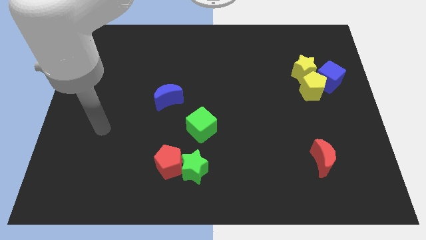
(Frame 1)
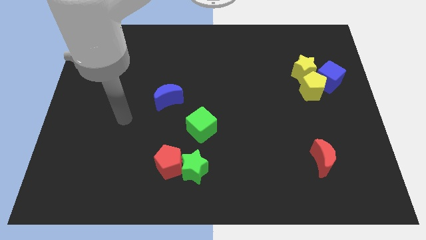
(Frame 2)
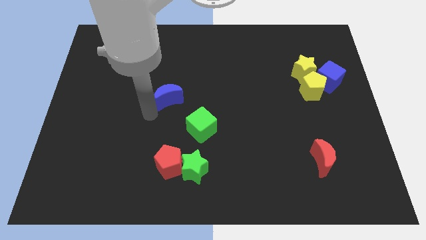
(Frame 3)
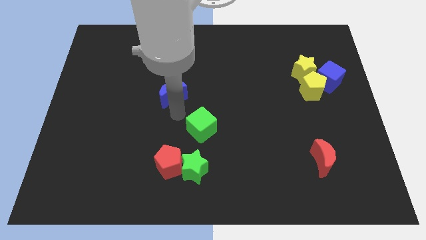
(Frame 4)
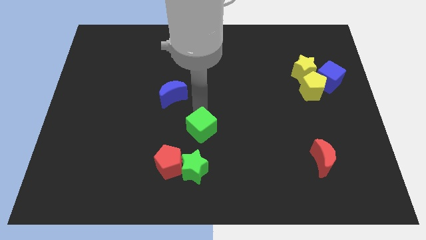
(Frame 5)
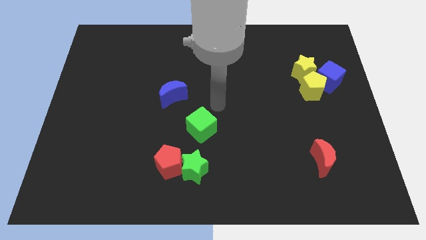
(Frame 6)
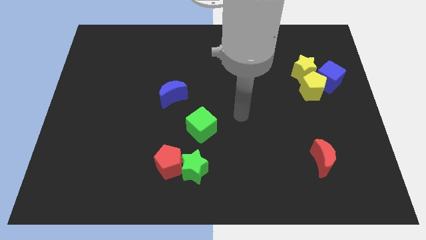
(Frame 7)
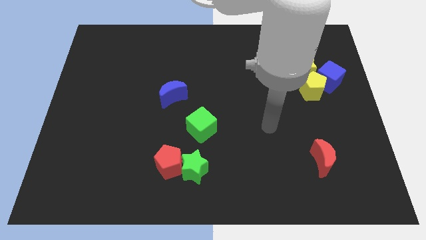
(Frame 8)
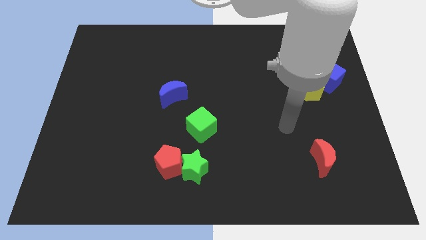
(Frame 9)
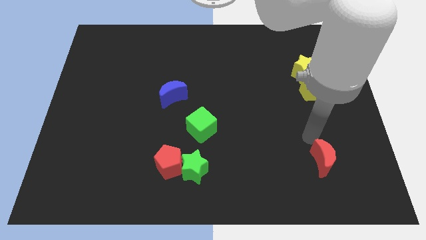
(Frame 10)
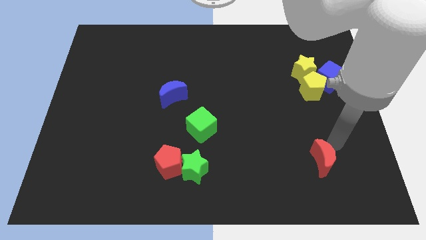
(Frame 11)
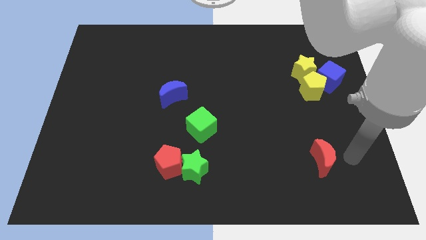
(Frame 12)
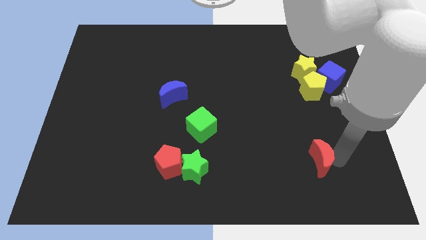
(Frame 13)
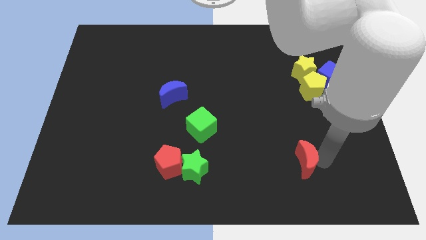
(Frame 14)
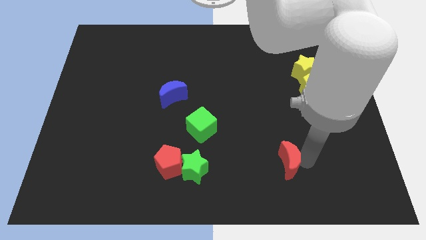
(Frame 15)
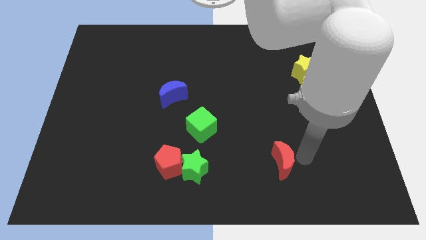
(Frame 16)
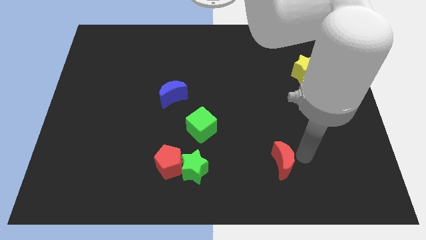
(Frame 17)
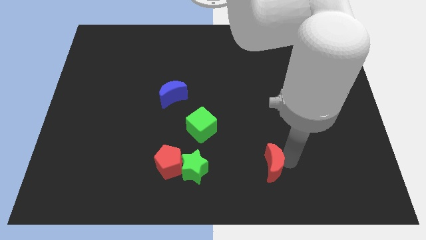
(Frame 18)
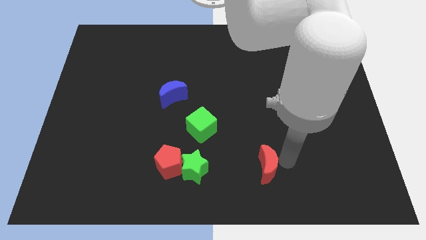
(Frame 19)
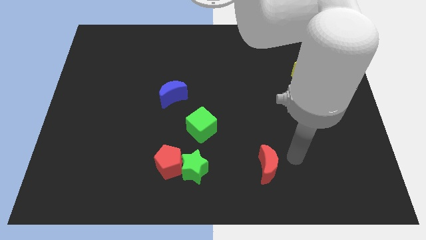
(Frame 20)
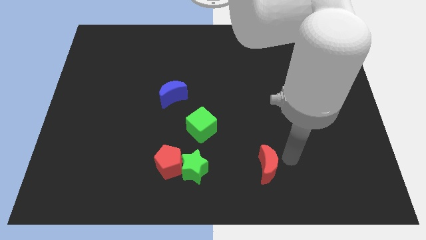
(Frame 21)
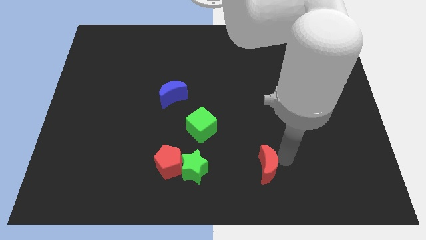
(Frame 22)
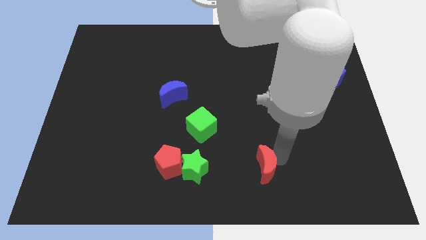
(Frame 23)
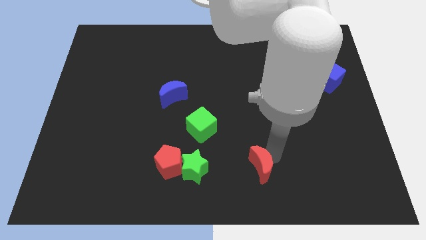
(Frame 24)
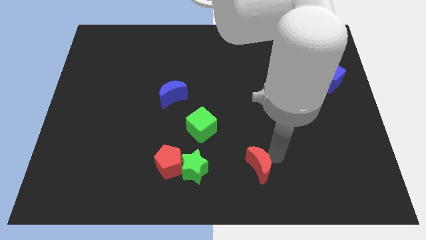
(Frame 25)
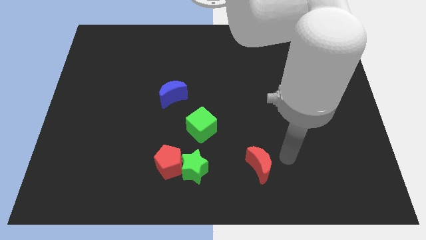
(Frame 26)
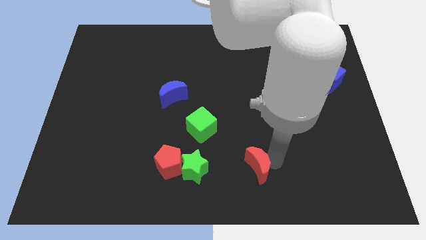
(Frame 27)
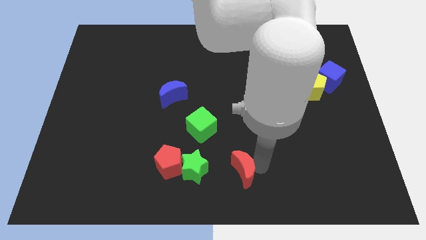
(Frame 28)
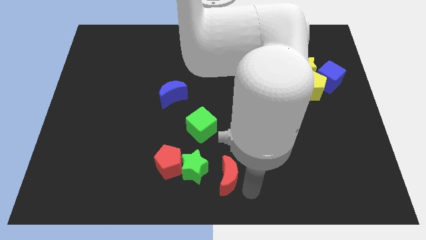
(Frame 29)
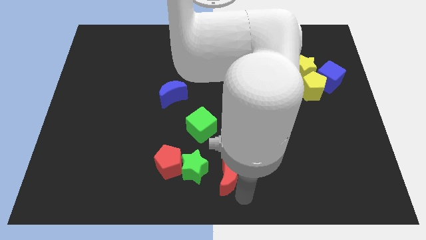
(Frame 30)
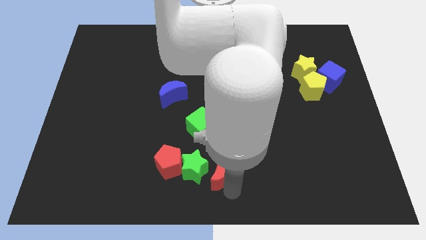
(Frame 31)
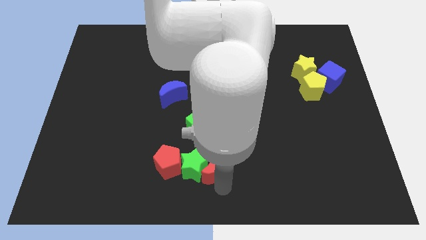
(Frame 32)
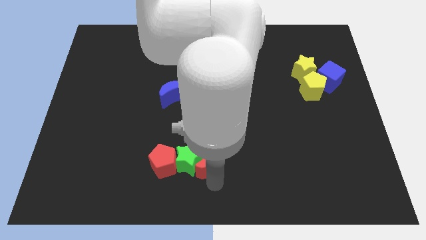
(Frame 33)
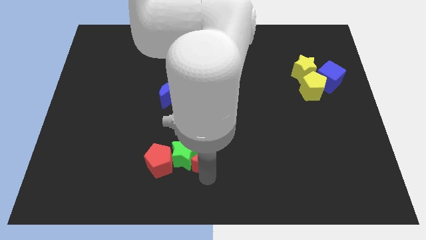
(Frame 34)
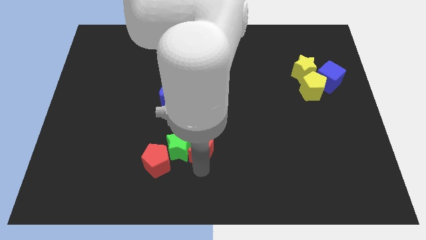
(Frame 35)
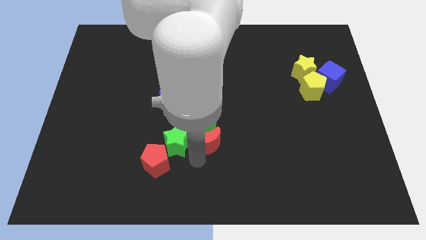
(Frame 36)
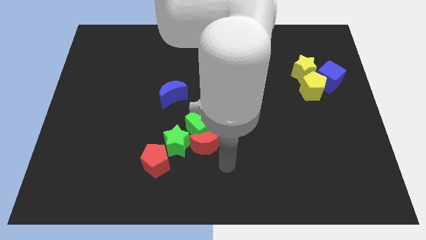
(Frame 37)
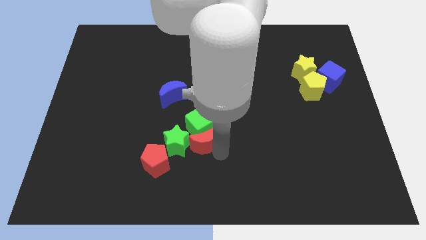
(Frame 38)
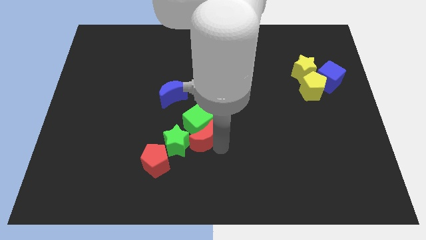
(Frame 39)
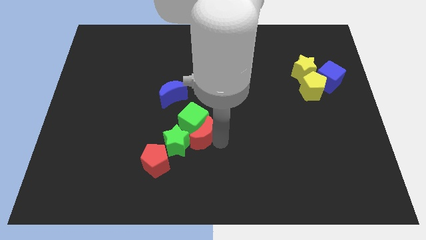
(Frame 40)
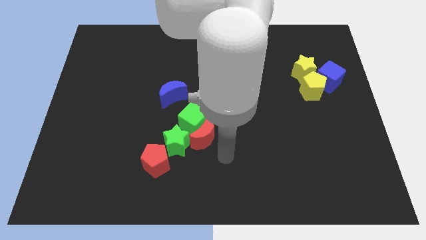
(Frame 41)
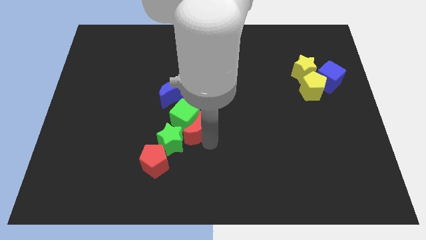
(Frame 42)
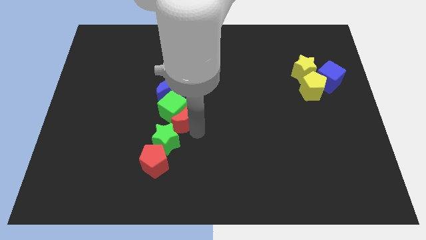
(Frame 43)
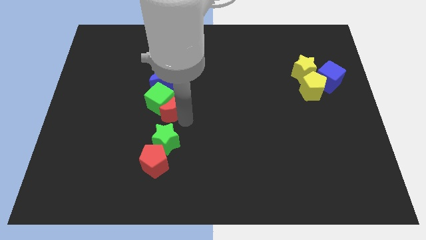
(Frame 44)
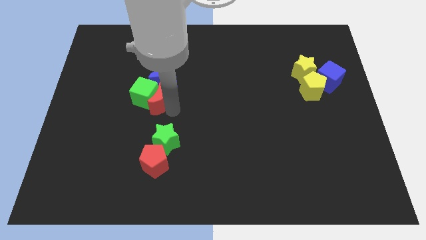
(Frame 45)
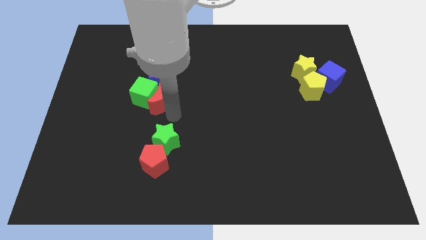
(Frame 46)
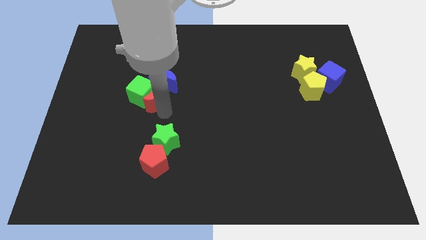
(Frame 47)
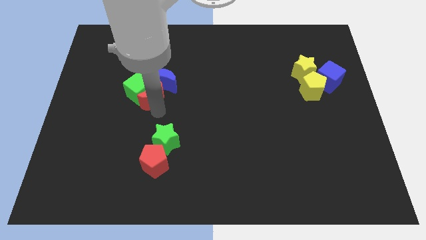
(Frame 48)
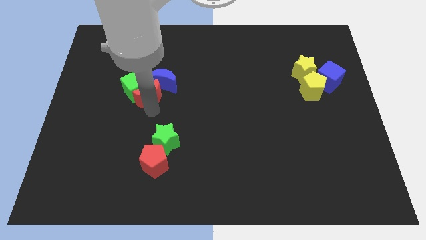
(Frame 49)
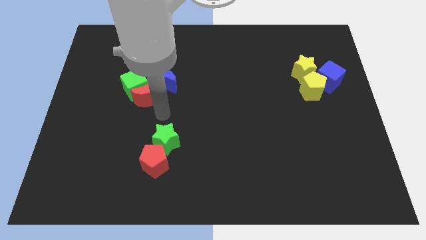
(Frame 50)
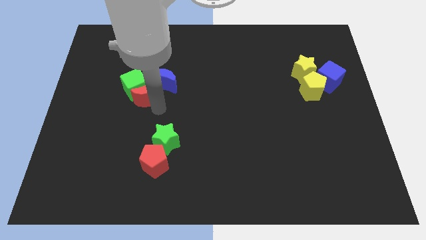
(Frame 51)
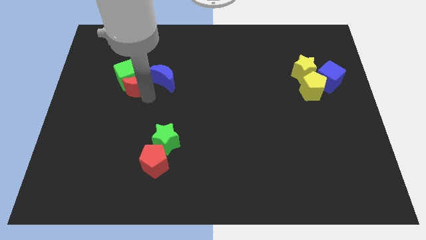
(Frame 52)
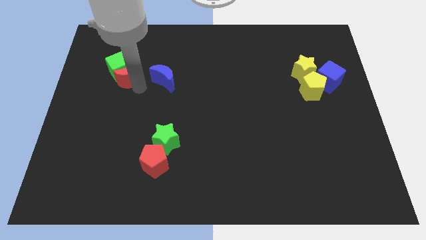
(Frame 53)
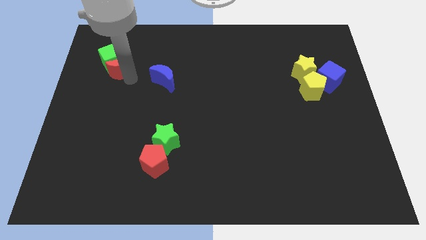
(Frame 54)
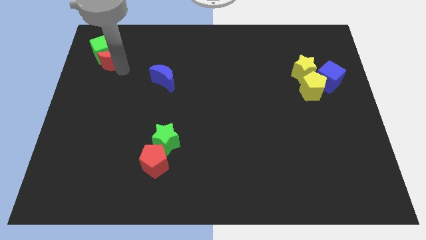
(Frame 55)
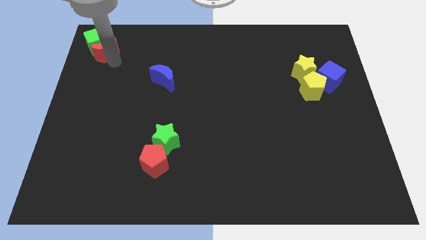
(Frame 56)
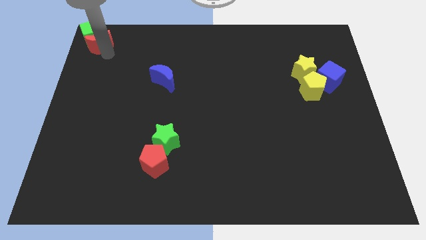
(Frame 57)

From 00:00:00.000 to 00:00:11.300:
put the red moon to the upper left corner

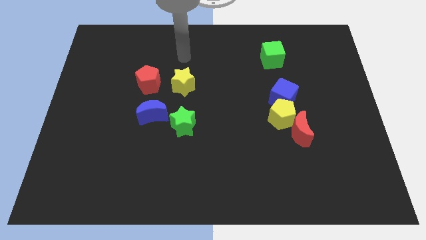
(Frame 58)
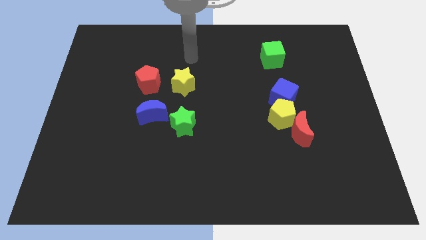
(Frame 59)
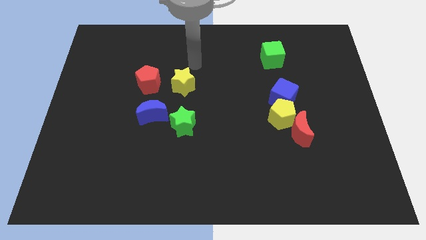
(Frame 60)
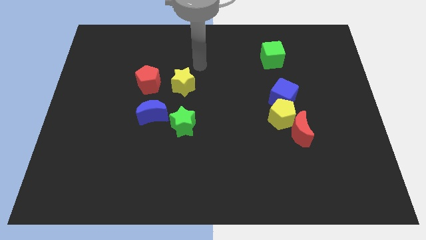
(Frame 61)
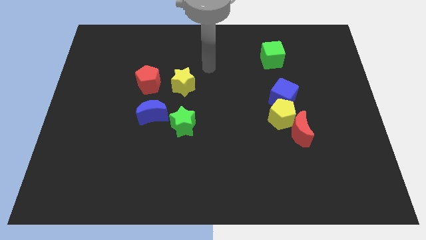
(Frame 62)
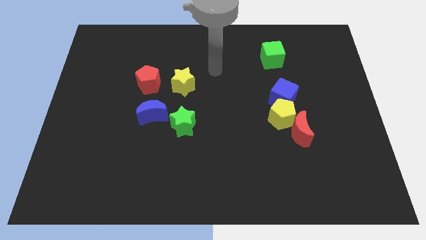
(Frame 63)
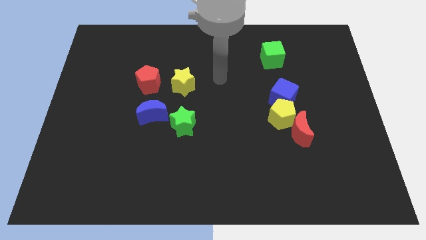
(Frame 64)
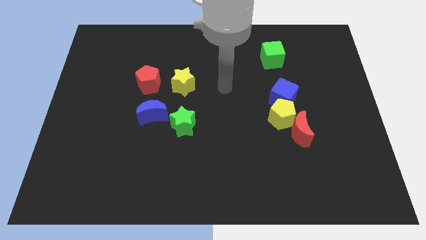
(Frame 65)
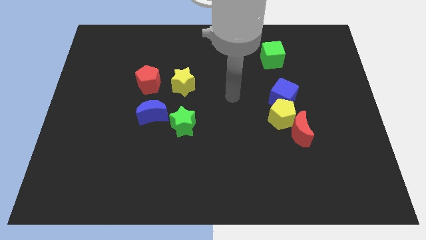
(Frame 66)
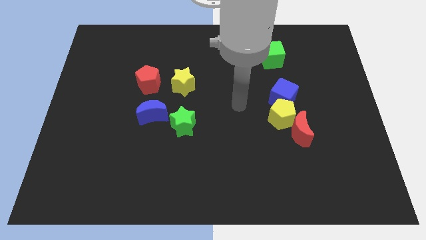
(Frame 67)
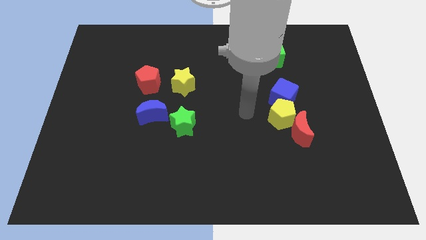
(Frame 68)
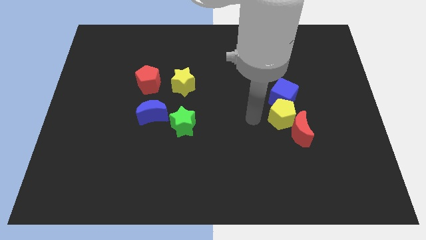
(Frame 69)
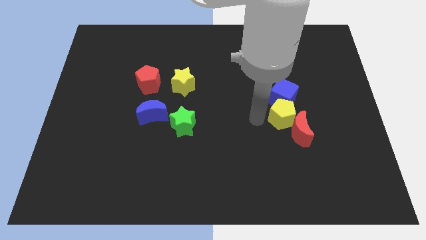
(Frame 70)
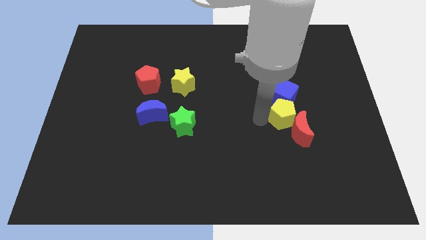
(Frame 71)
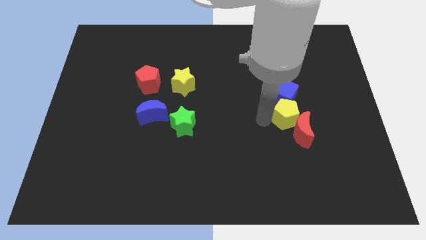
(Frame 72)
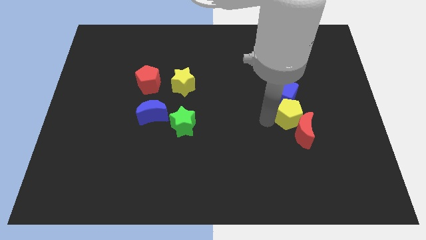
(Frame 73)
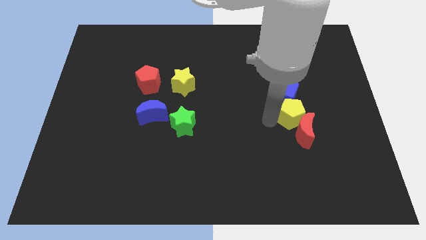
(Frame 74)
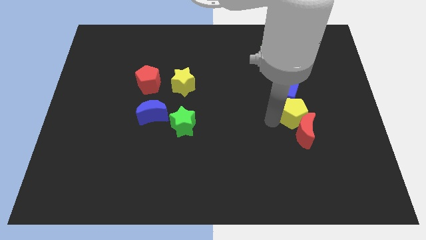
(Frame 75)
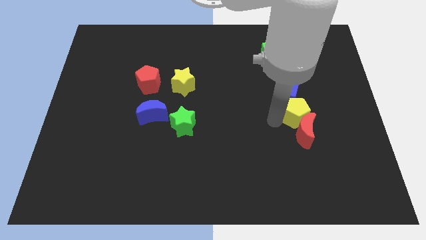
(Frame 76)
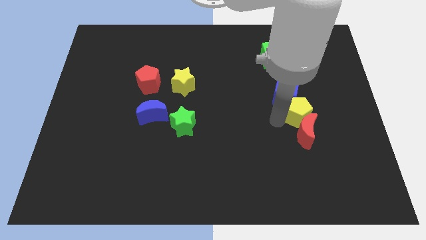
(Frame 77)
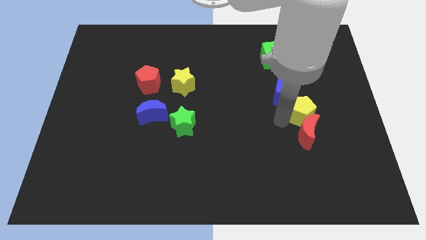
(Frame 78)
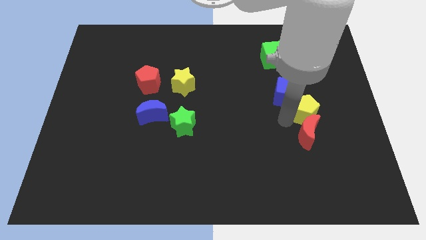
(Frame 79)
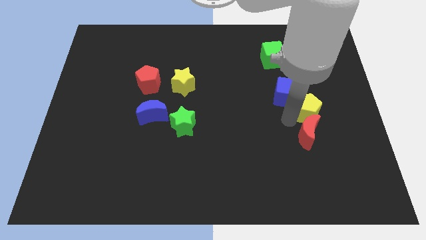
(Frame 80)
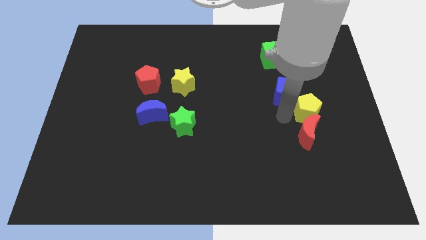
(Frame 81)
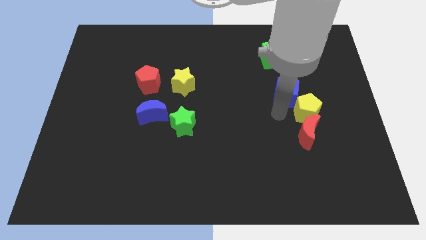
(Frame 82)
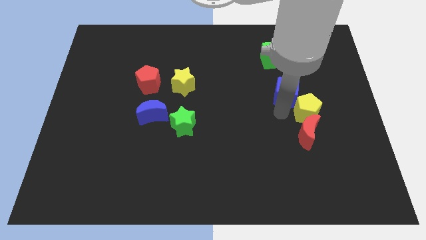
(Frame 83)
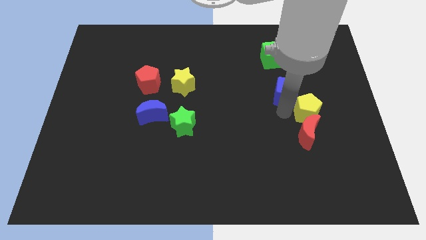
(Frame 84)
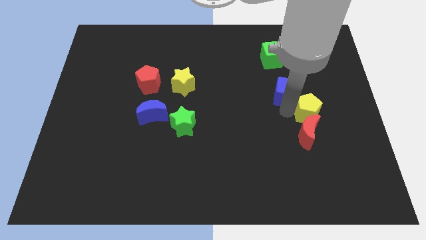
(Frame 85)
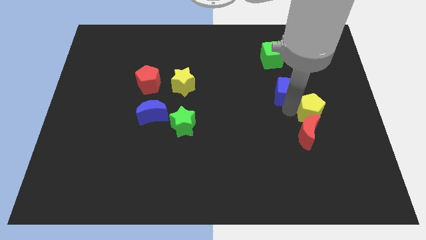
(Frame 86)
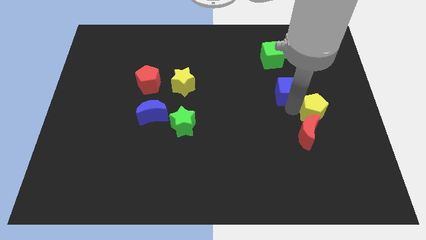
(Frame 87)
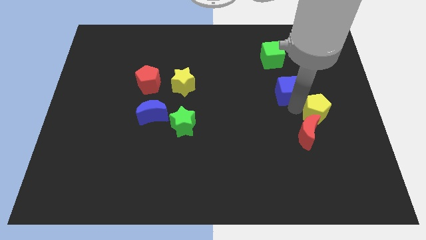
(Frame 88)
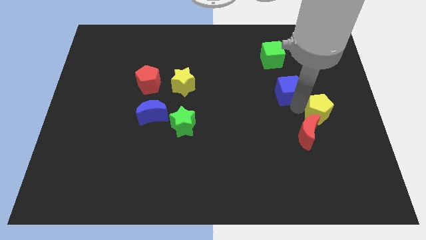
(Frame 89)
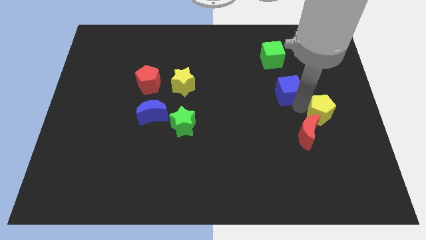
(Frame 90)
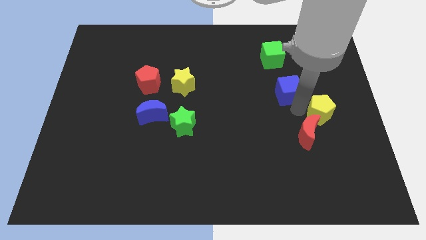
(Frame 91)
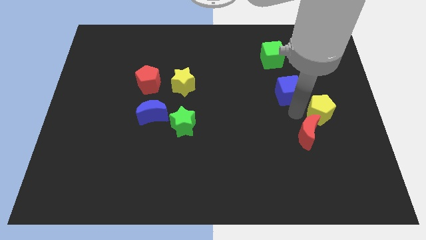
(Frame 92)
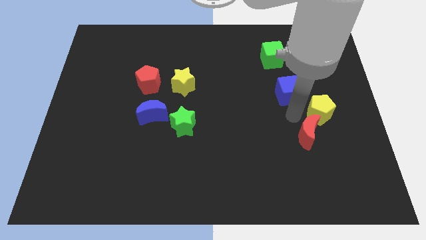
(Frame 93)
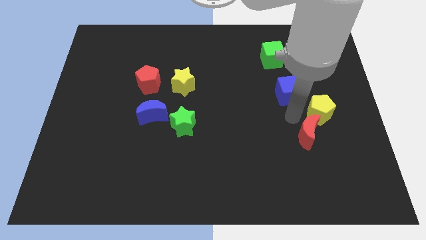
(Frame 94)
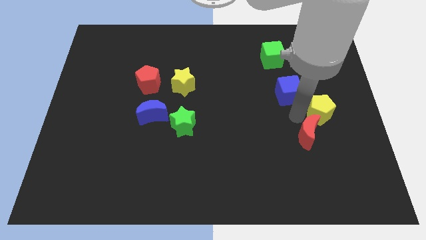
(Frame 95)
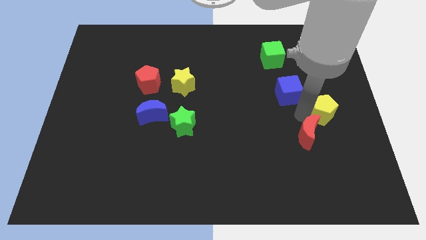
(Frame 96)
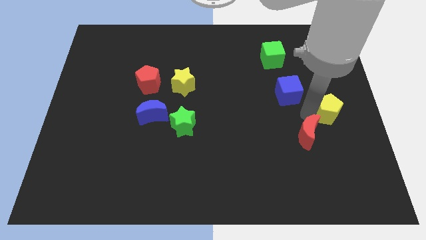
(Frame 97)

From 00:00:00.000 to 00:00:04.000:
push the yellow pentagon to the right side
